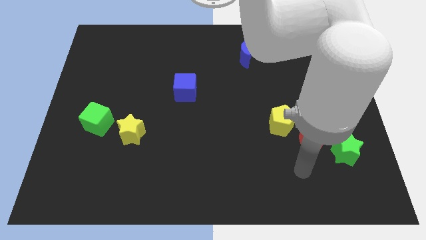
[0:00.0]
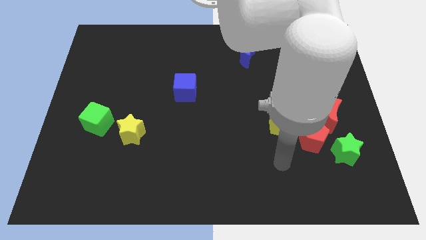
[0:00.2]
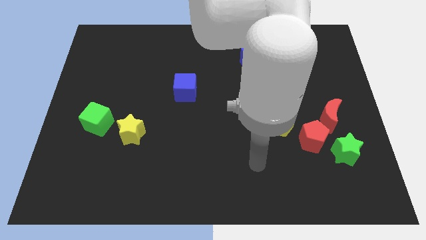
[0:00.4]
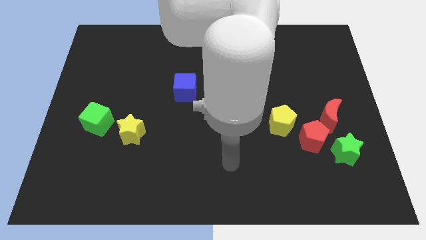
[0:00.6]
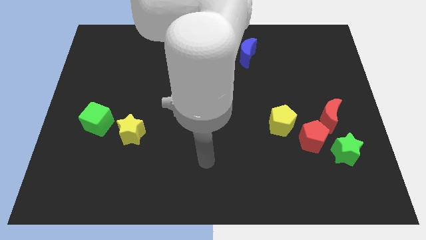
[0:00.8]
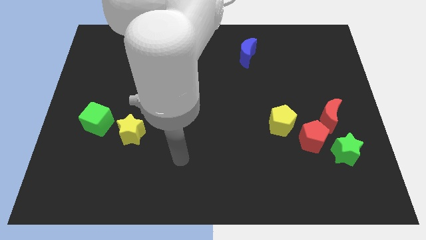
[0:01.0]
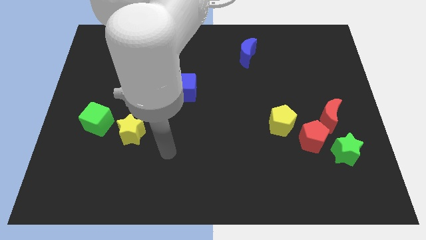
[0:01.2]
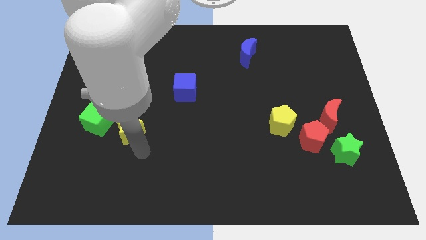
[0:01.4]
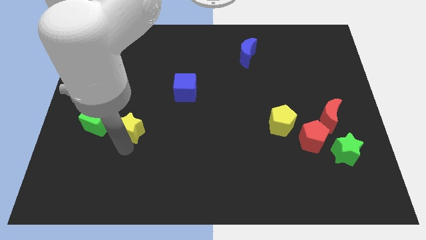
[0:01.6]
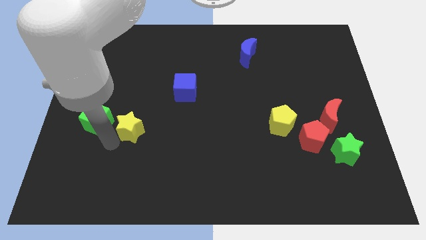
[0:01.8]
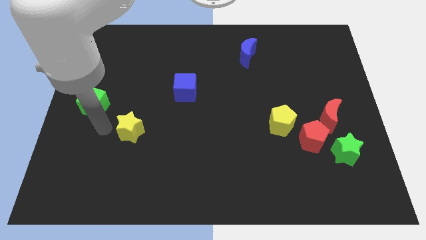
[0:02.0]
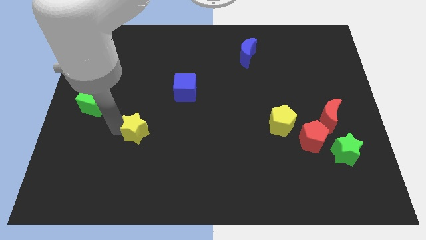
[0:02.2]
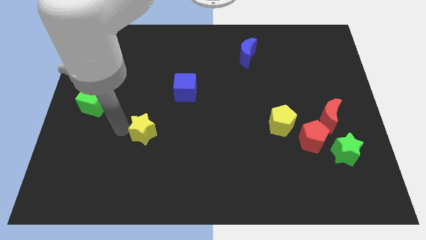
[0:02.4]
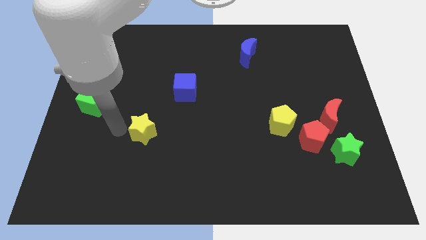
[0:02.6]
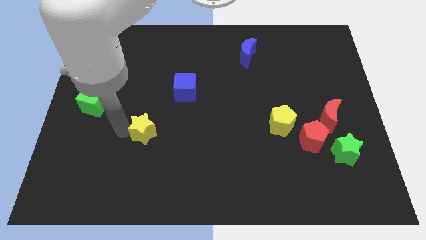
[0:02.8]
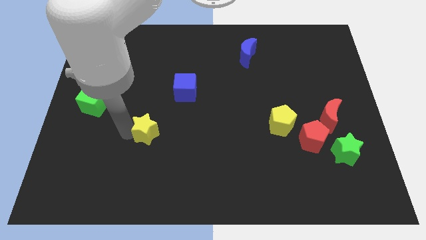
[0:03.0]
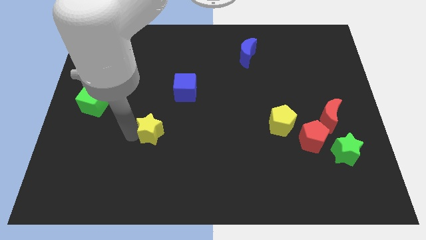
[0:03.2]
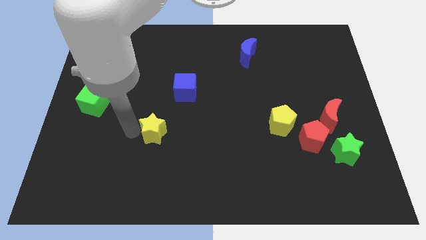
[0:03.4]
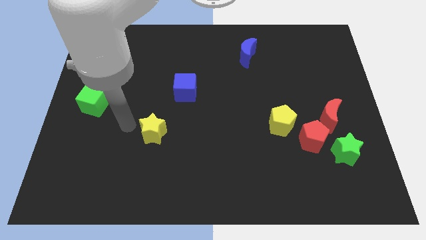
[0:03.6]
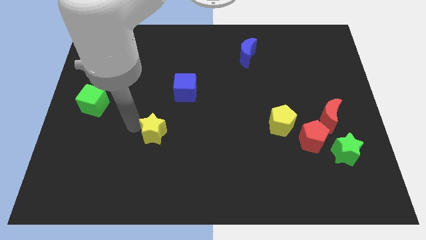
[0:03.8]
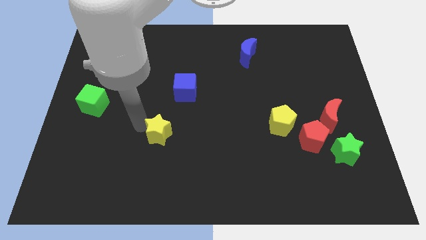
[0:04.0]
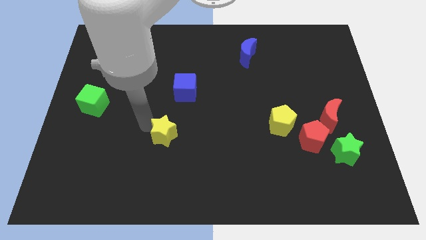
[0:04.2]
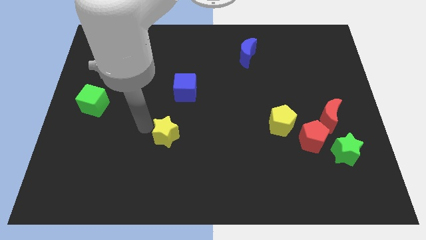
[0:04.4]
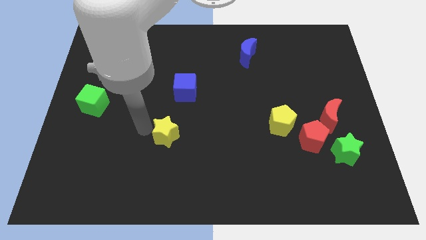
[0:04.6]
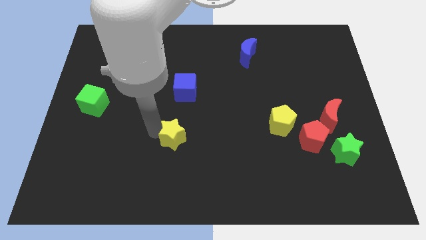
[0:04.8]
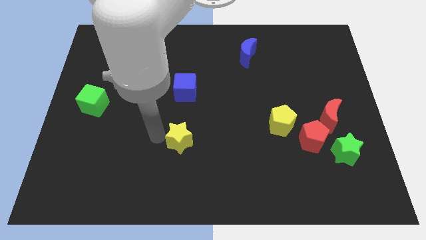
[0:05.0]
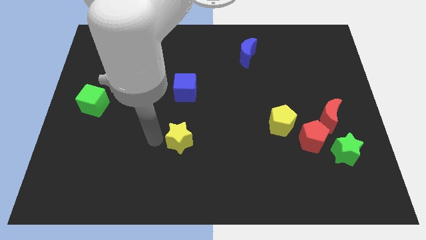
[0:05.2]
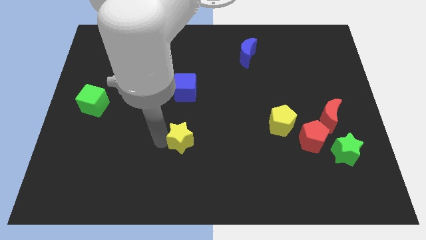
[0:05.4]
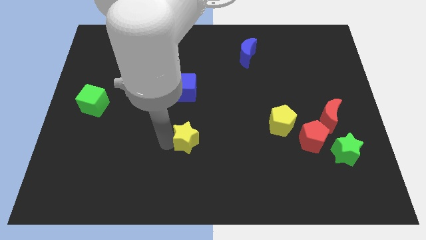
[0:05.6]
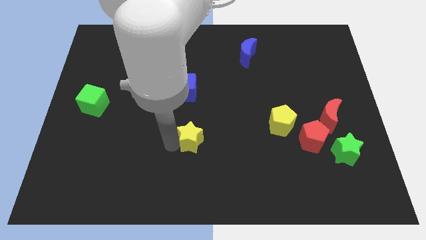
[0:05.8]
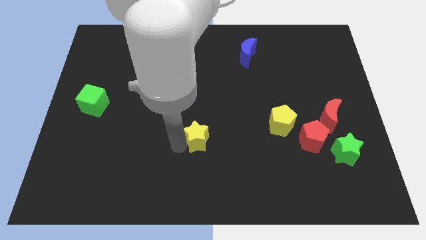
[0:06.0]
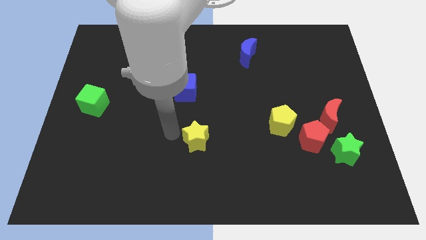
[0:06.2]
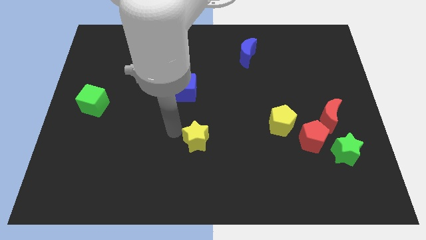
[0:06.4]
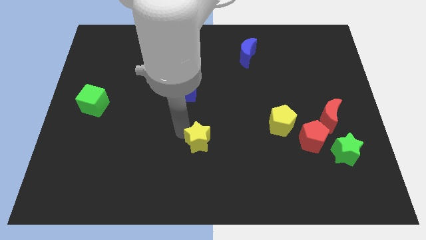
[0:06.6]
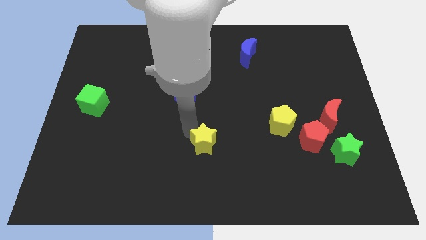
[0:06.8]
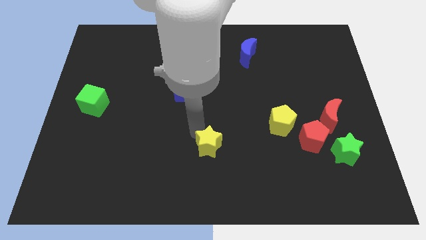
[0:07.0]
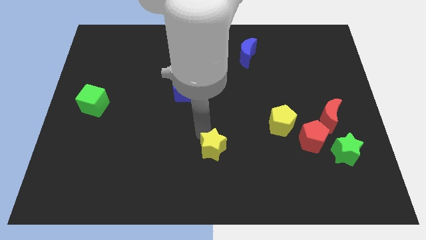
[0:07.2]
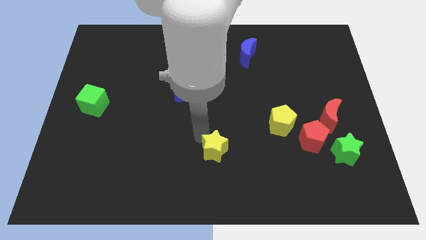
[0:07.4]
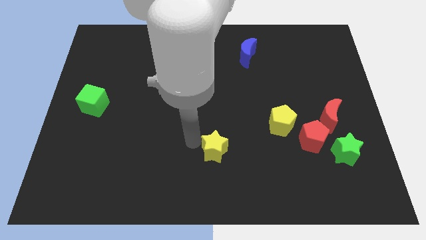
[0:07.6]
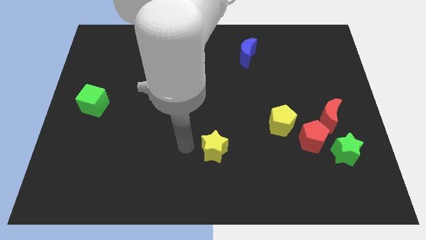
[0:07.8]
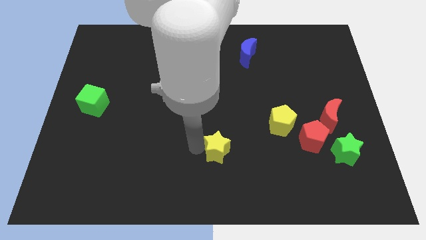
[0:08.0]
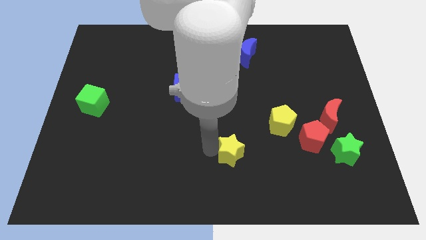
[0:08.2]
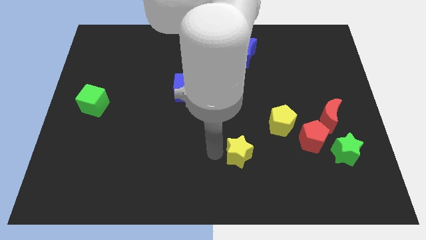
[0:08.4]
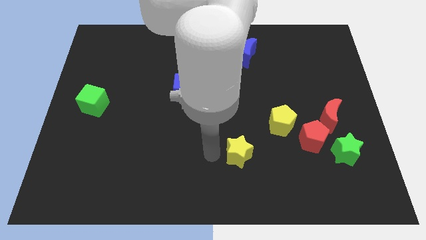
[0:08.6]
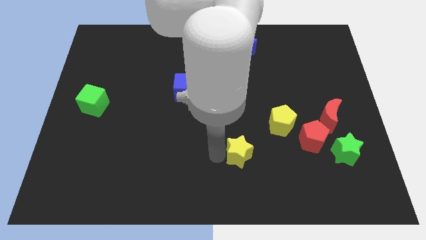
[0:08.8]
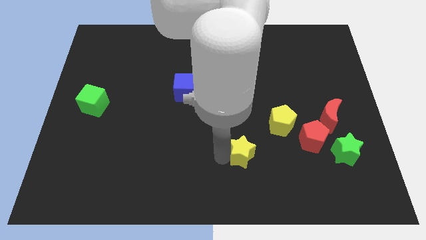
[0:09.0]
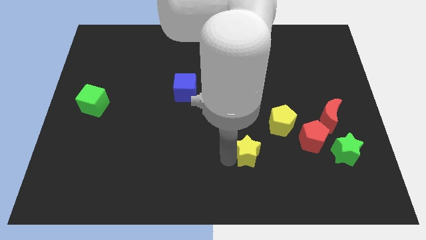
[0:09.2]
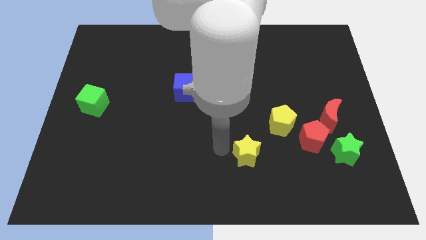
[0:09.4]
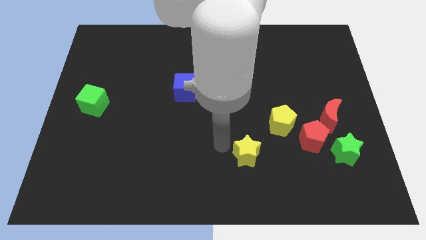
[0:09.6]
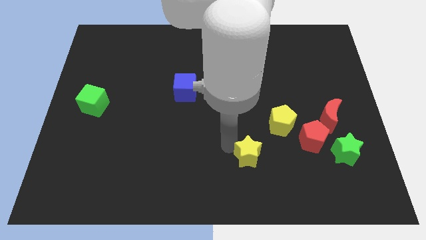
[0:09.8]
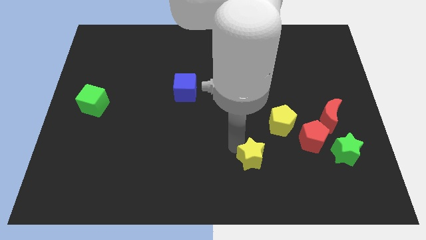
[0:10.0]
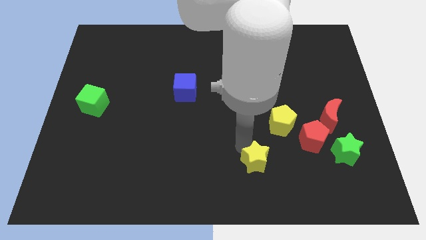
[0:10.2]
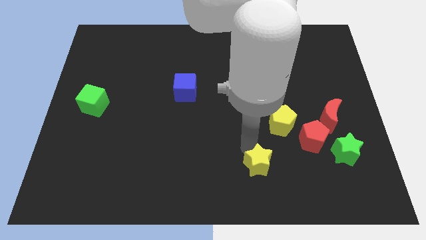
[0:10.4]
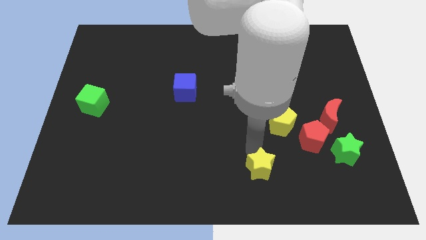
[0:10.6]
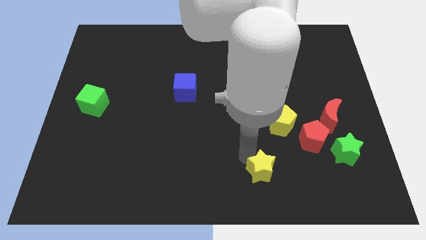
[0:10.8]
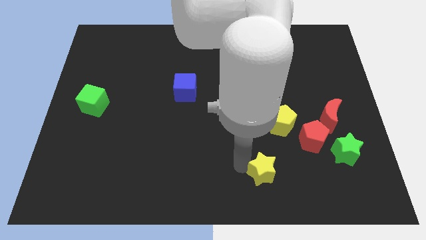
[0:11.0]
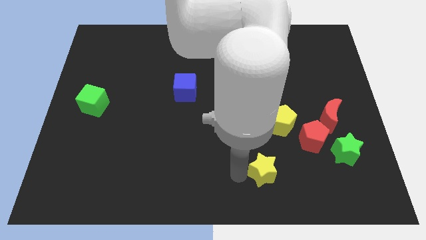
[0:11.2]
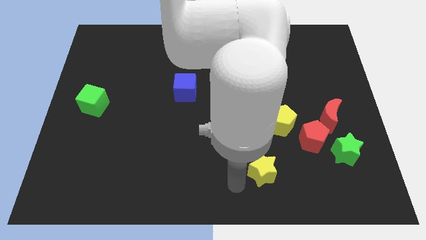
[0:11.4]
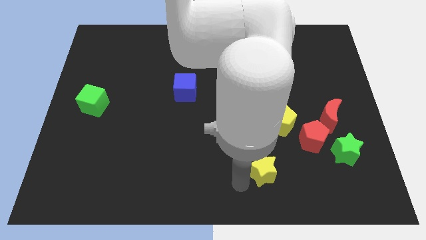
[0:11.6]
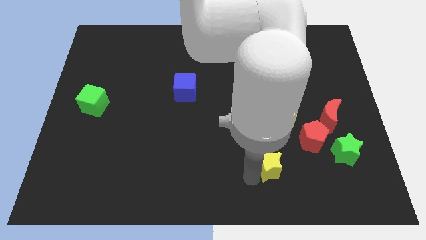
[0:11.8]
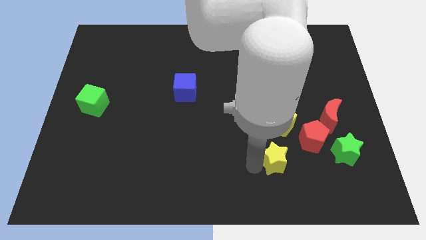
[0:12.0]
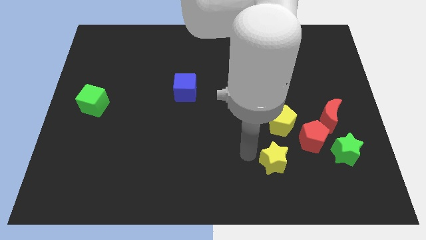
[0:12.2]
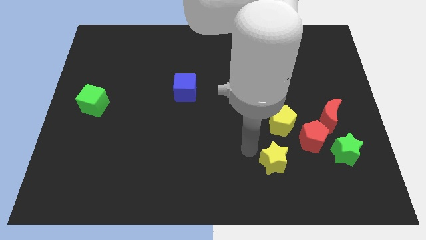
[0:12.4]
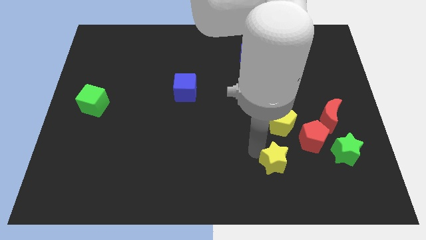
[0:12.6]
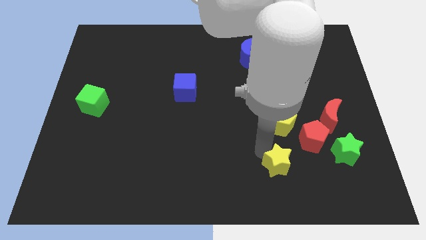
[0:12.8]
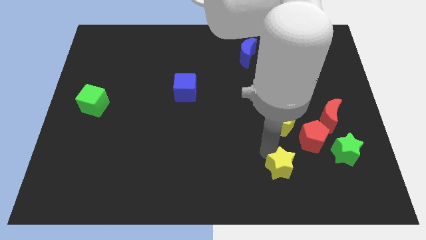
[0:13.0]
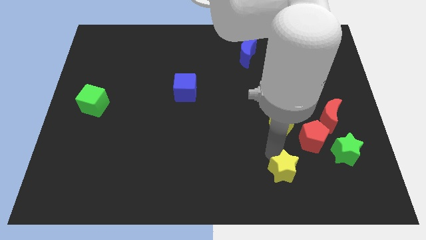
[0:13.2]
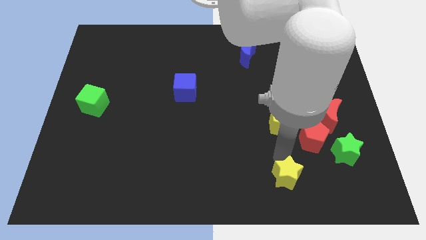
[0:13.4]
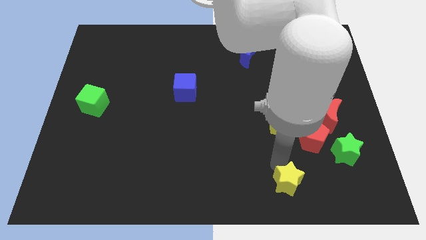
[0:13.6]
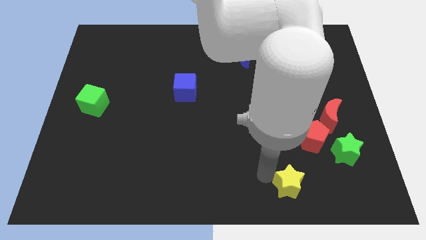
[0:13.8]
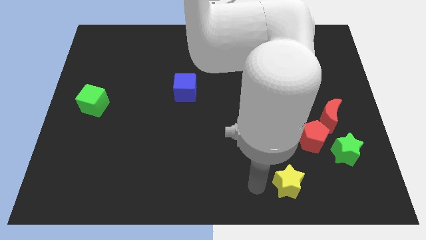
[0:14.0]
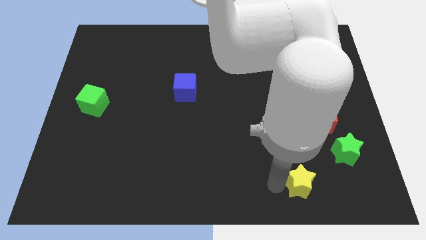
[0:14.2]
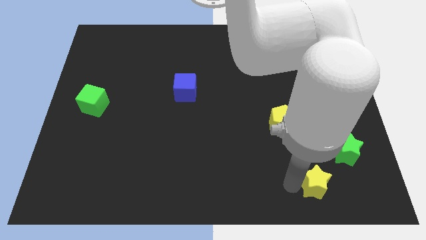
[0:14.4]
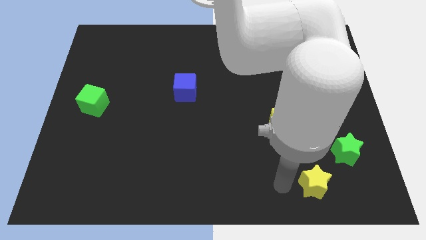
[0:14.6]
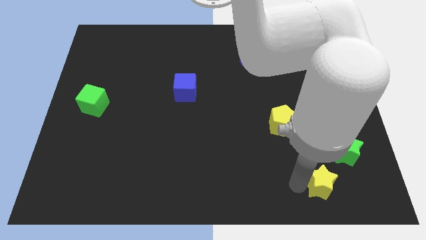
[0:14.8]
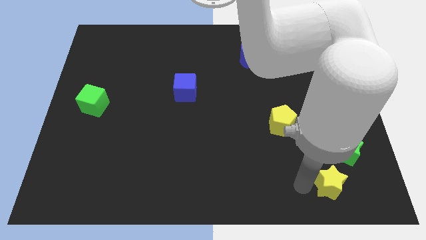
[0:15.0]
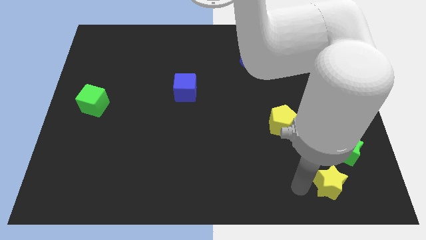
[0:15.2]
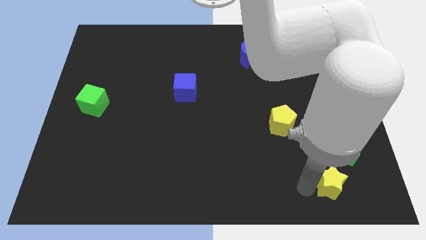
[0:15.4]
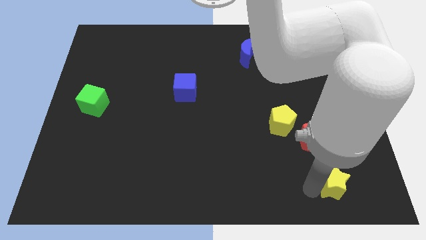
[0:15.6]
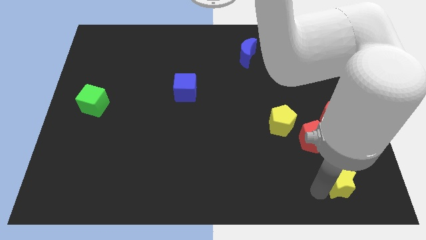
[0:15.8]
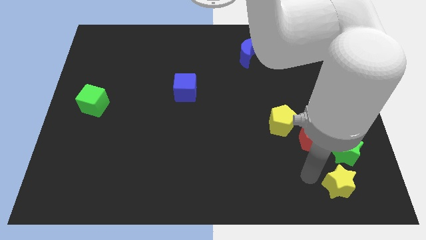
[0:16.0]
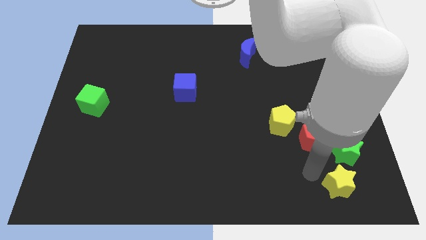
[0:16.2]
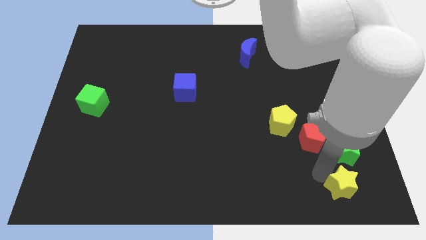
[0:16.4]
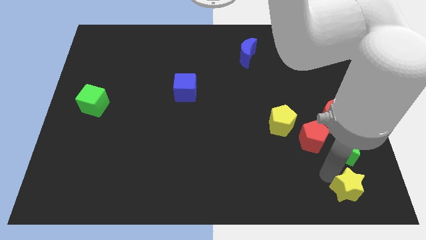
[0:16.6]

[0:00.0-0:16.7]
move the yellow star to the lower right corner
